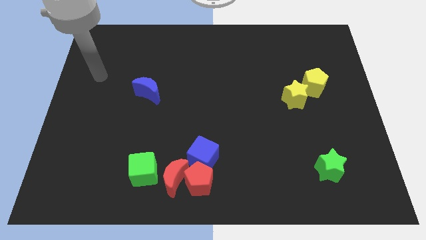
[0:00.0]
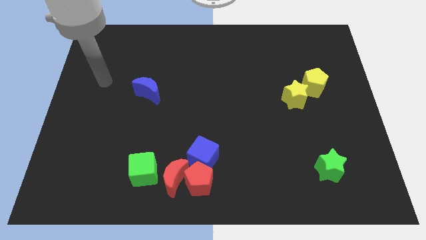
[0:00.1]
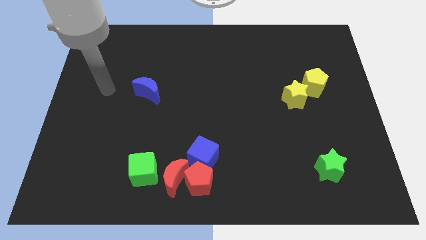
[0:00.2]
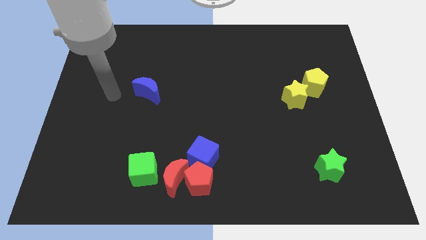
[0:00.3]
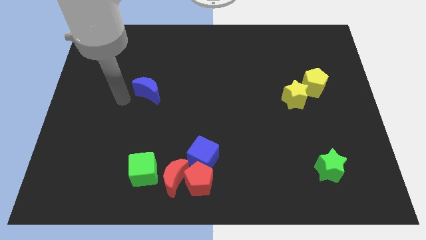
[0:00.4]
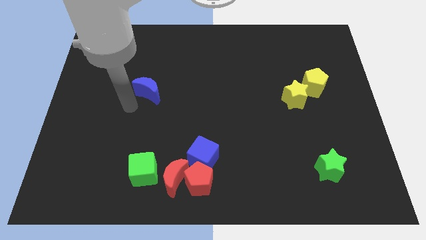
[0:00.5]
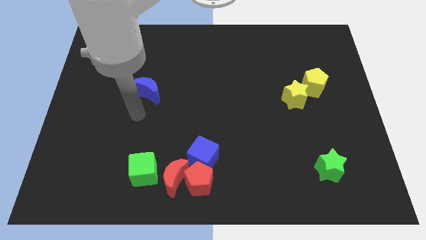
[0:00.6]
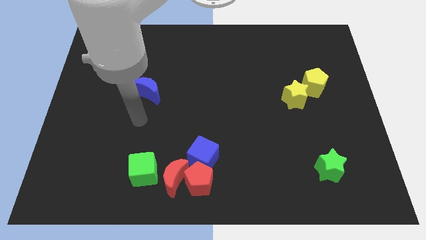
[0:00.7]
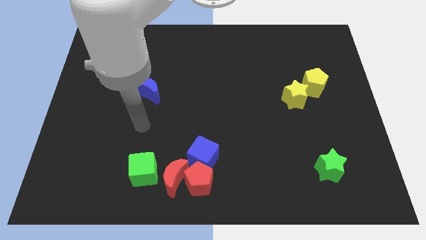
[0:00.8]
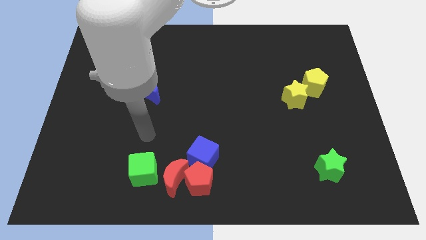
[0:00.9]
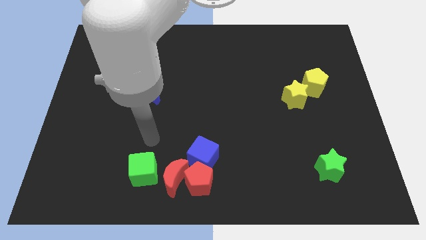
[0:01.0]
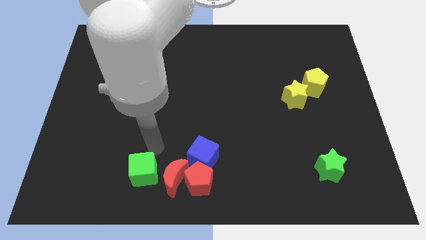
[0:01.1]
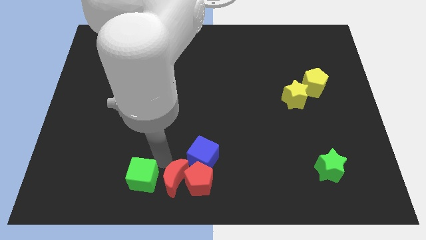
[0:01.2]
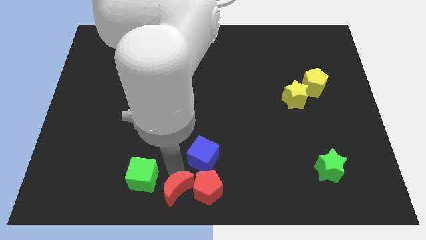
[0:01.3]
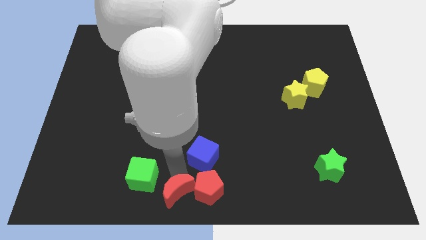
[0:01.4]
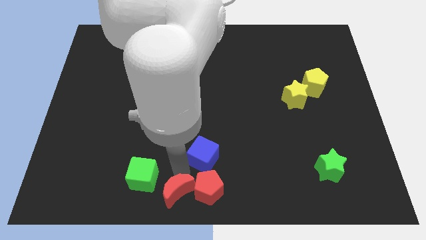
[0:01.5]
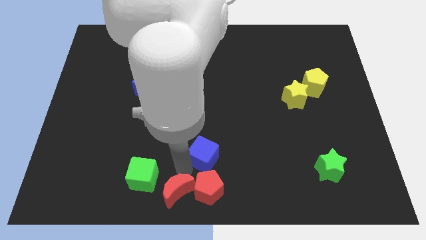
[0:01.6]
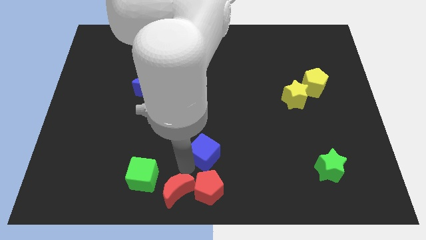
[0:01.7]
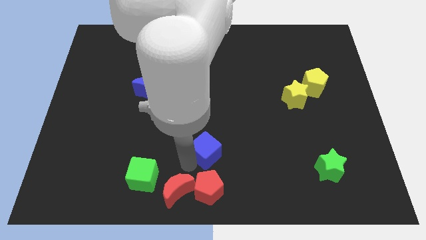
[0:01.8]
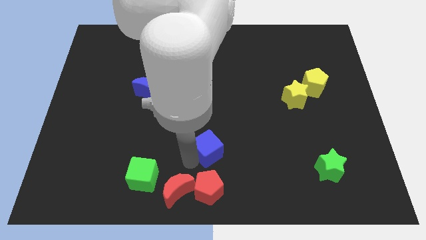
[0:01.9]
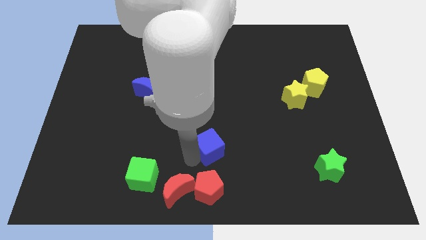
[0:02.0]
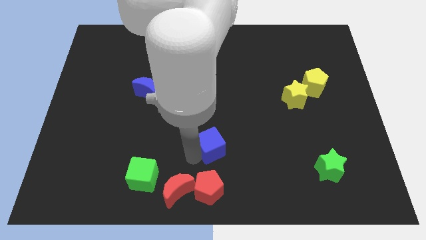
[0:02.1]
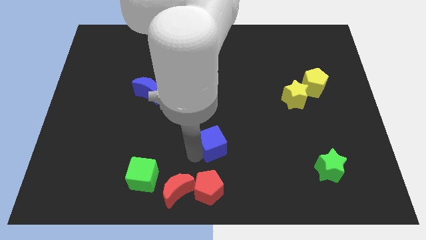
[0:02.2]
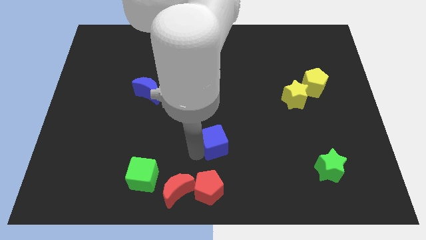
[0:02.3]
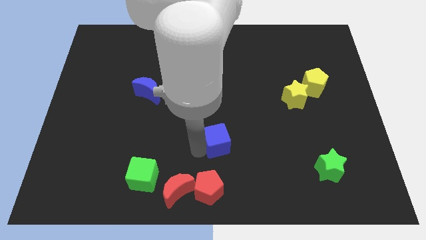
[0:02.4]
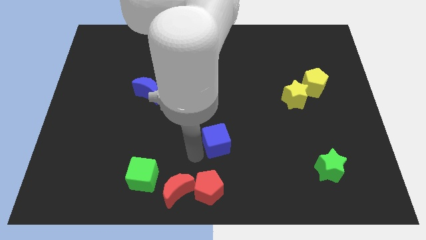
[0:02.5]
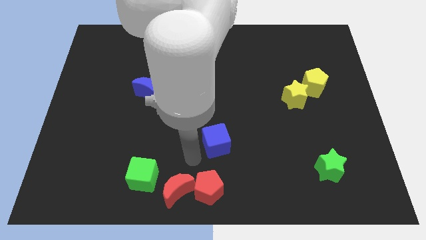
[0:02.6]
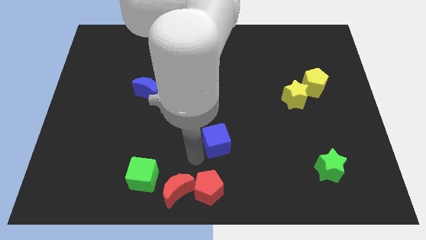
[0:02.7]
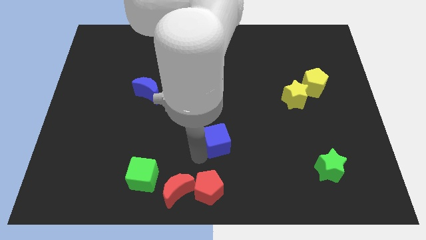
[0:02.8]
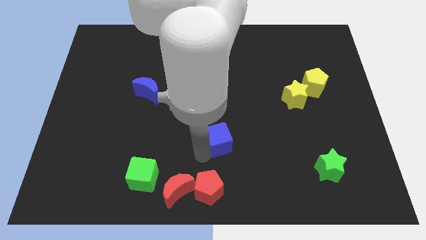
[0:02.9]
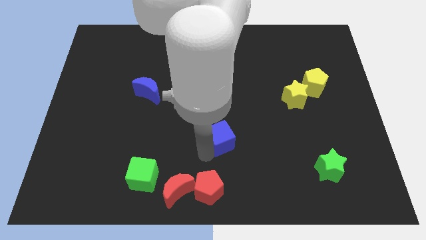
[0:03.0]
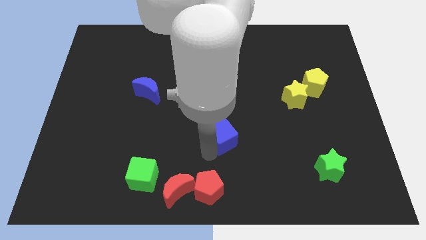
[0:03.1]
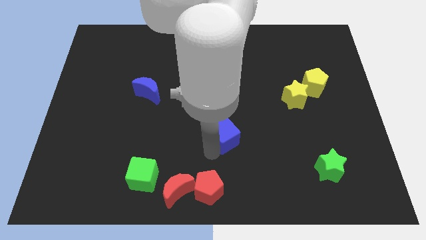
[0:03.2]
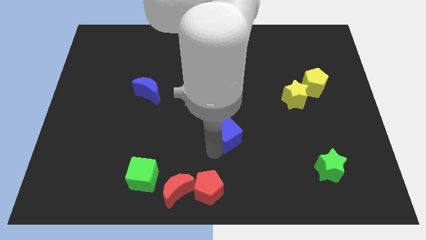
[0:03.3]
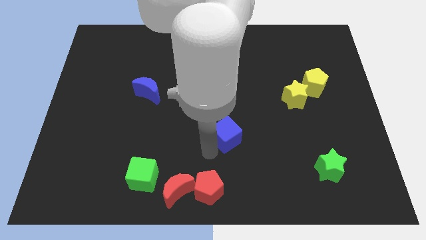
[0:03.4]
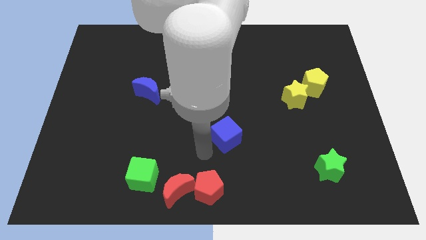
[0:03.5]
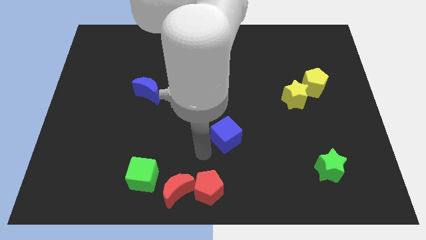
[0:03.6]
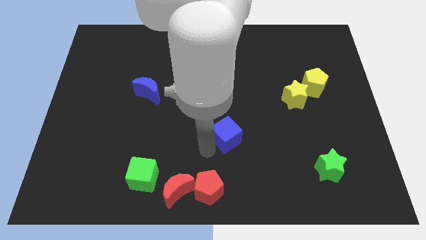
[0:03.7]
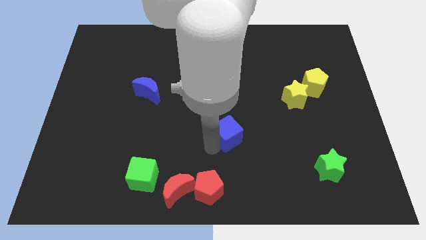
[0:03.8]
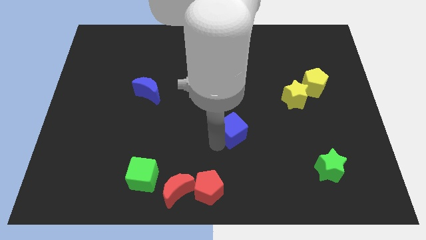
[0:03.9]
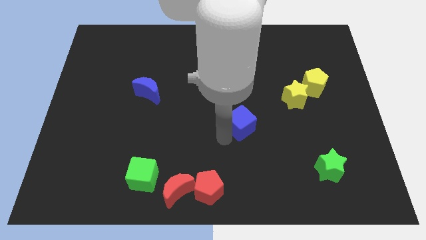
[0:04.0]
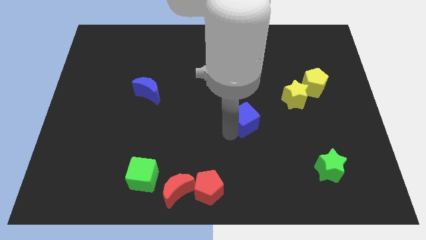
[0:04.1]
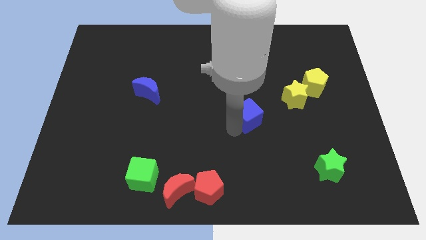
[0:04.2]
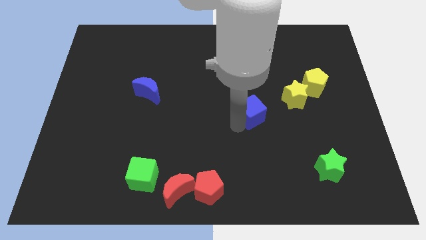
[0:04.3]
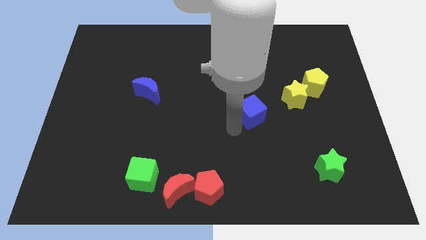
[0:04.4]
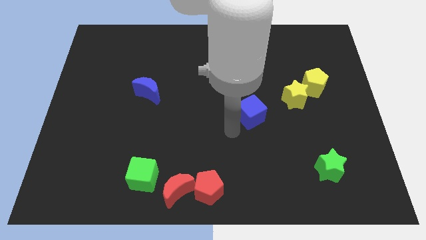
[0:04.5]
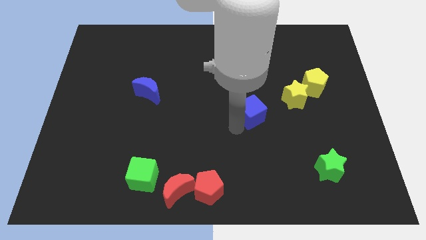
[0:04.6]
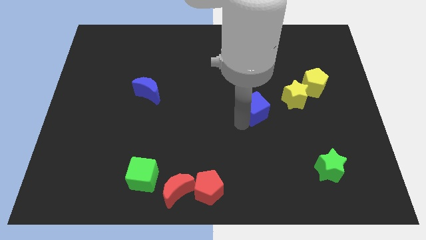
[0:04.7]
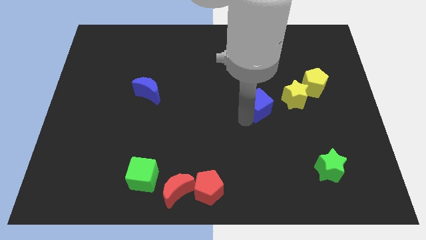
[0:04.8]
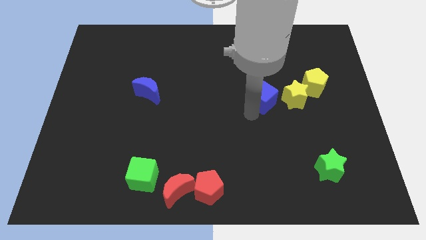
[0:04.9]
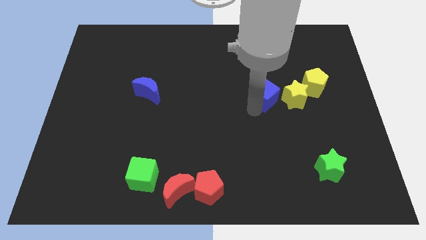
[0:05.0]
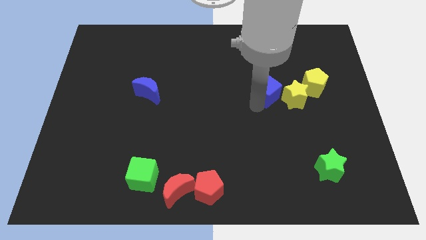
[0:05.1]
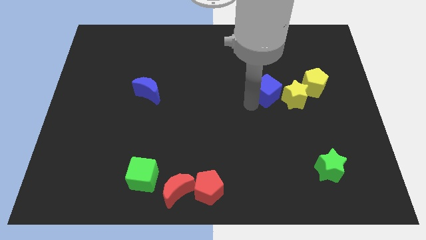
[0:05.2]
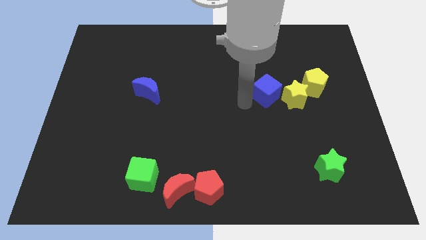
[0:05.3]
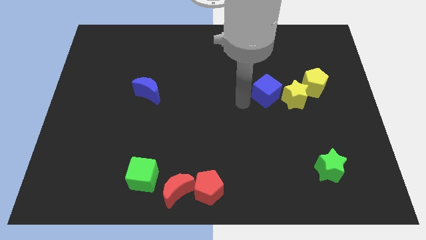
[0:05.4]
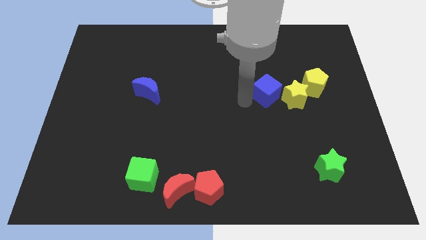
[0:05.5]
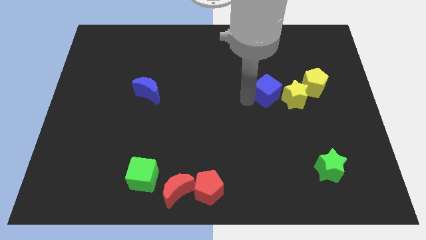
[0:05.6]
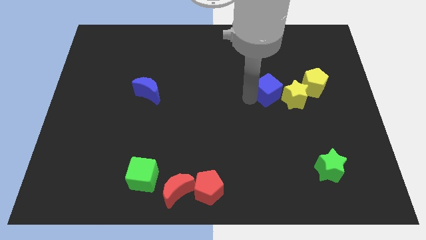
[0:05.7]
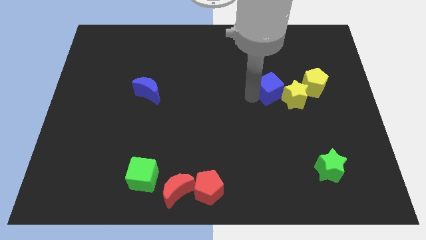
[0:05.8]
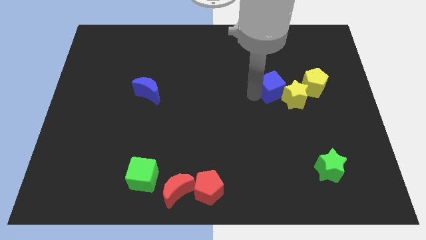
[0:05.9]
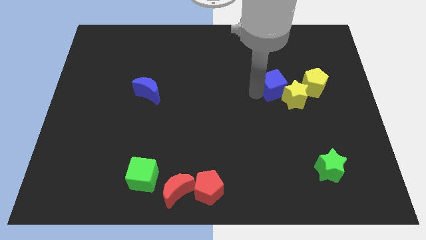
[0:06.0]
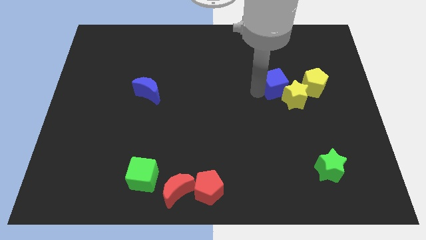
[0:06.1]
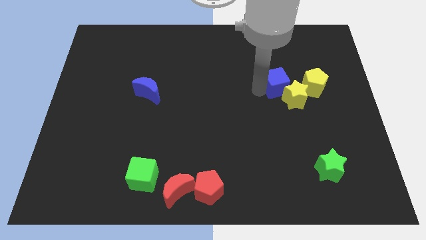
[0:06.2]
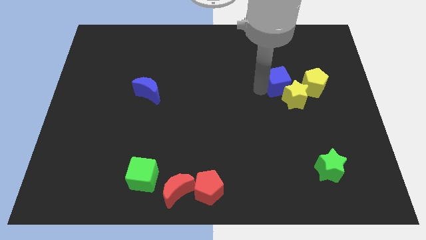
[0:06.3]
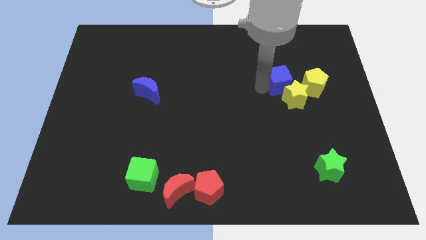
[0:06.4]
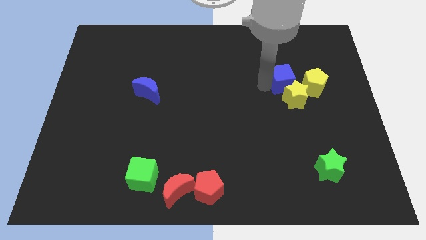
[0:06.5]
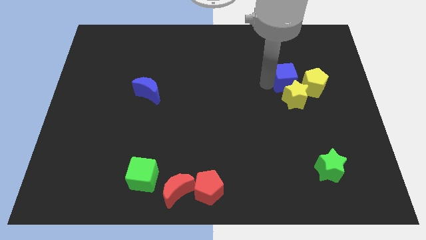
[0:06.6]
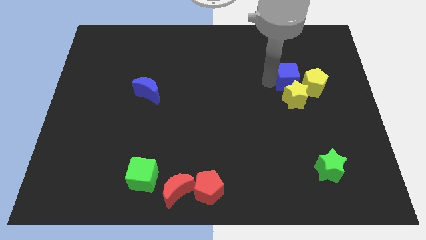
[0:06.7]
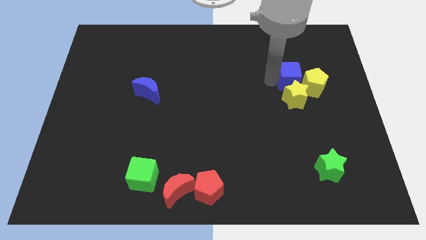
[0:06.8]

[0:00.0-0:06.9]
put the blue cube next to the yellow pentagon
